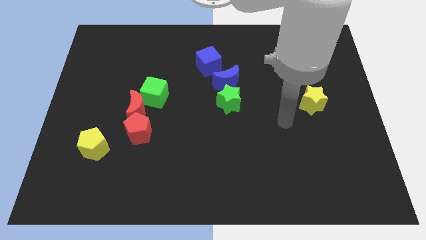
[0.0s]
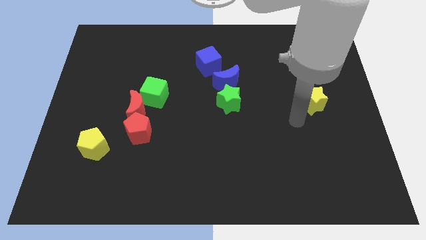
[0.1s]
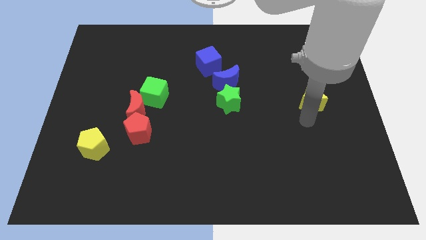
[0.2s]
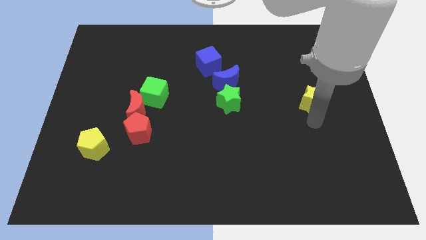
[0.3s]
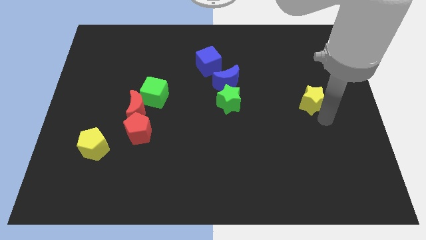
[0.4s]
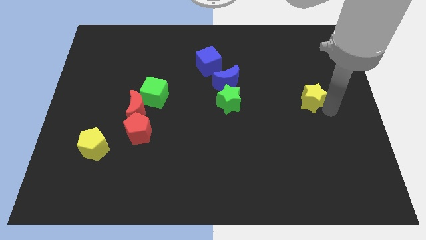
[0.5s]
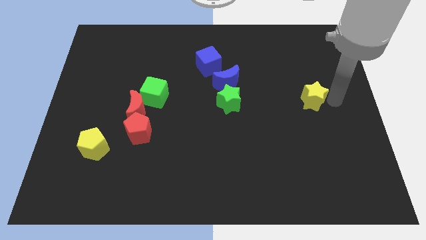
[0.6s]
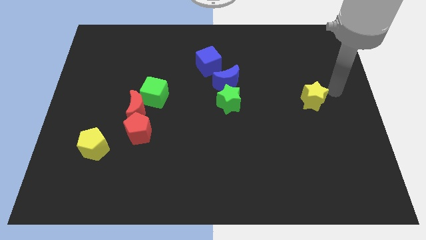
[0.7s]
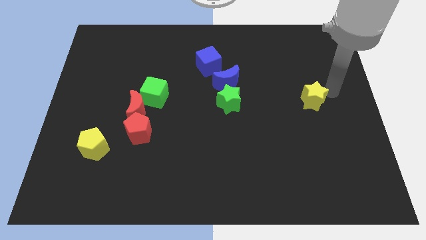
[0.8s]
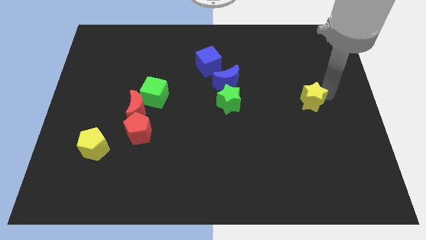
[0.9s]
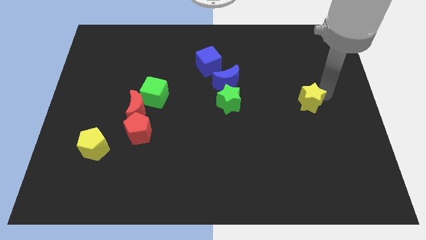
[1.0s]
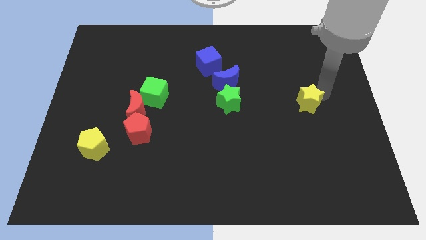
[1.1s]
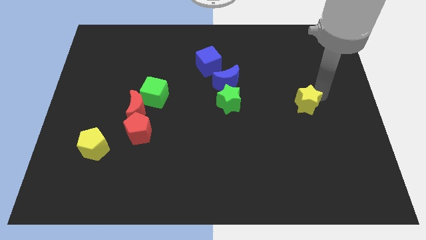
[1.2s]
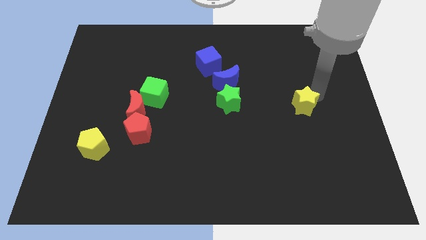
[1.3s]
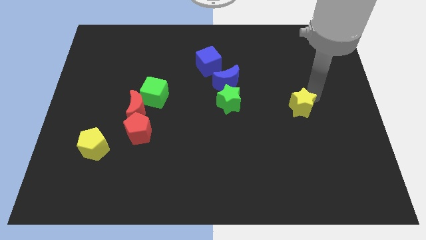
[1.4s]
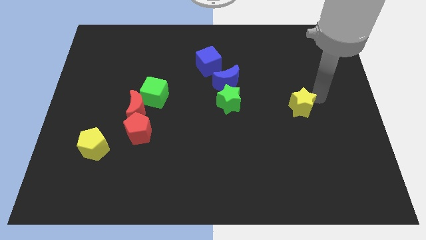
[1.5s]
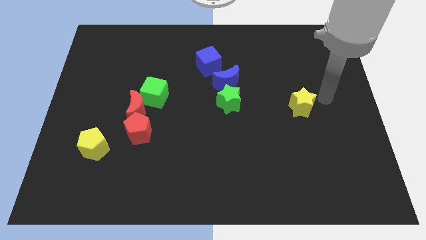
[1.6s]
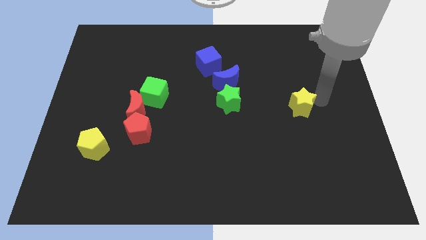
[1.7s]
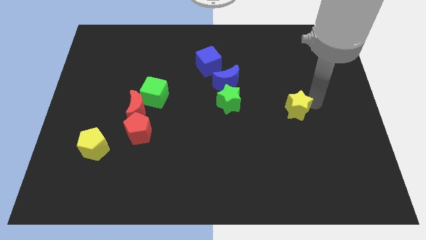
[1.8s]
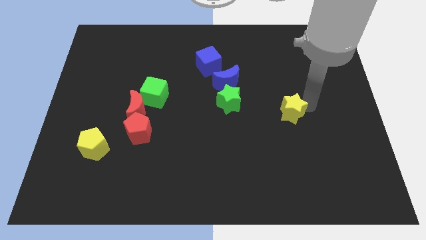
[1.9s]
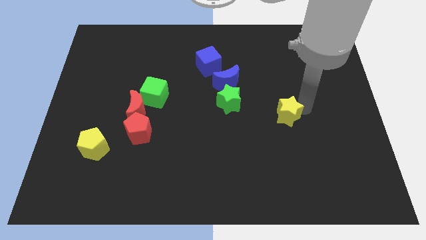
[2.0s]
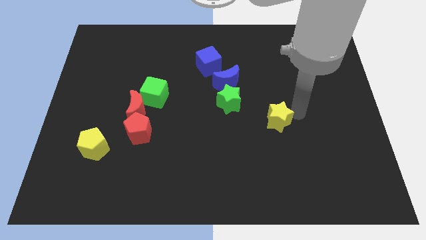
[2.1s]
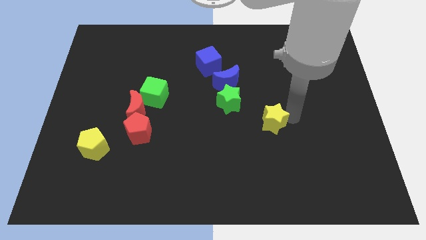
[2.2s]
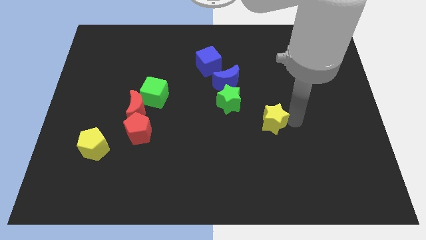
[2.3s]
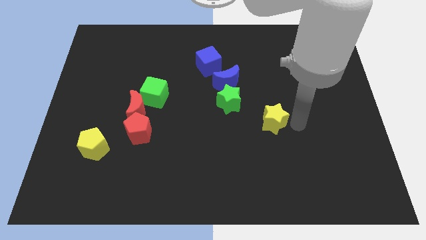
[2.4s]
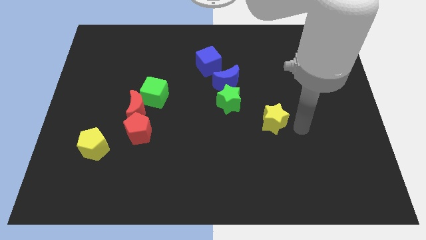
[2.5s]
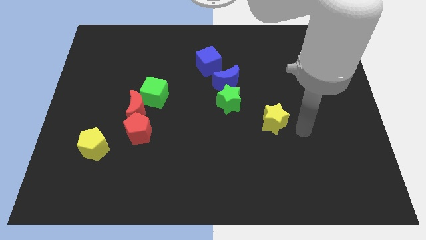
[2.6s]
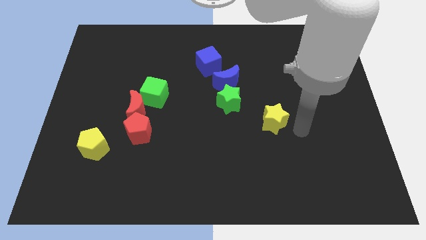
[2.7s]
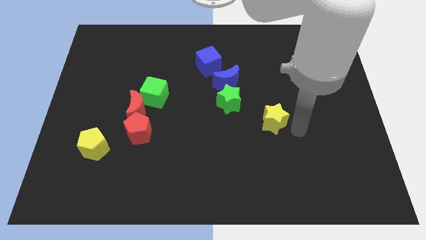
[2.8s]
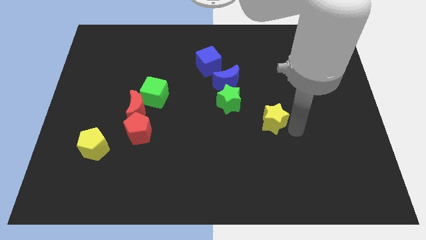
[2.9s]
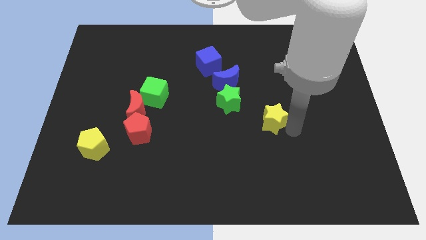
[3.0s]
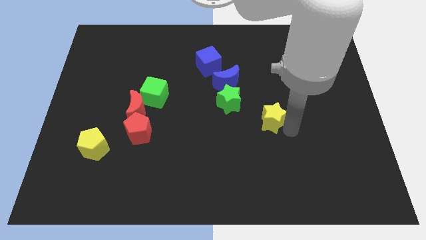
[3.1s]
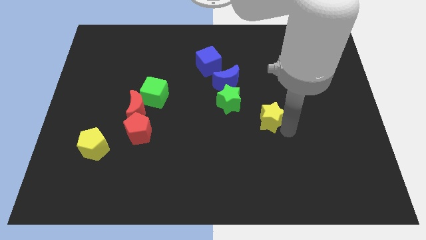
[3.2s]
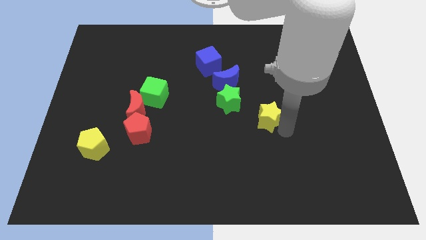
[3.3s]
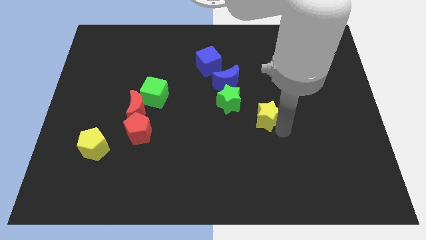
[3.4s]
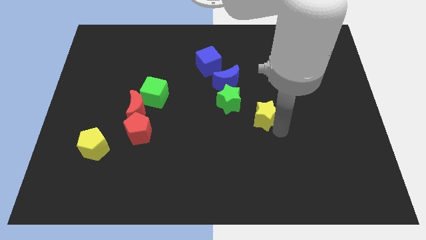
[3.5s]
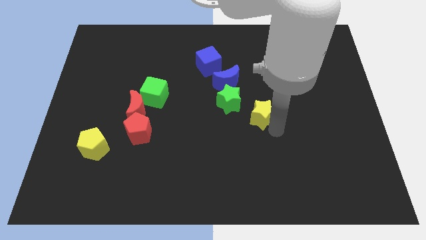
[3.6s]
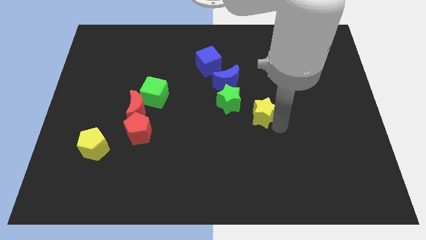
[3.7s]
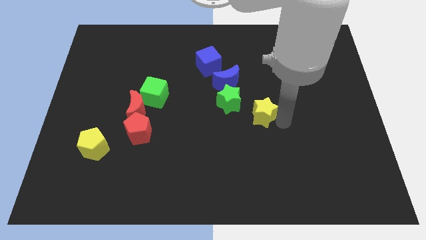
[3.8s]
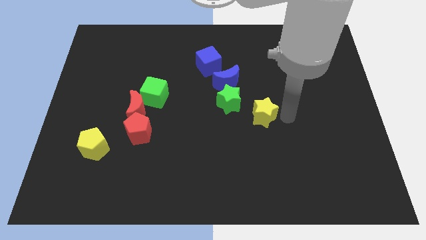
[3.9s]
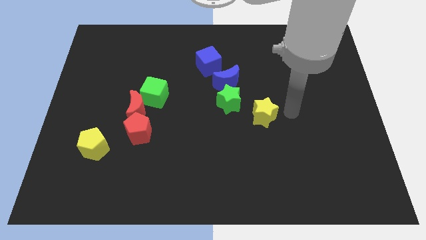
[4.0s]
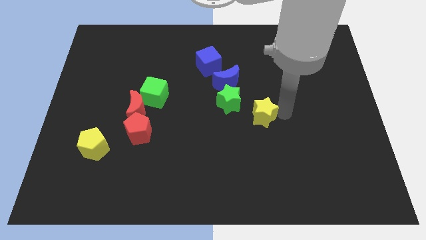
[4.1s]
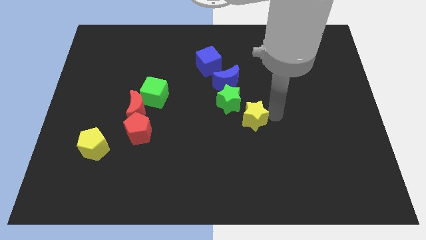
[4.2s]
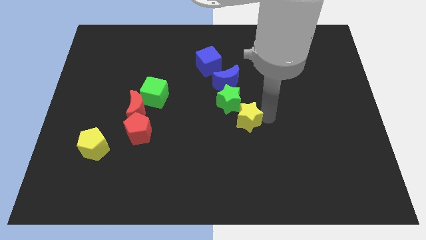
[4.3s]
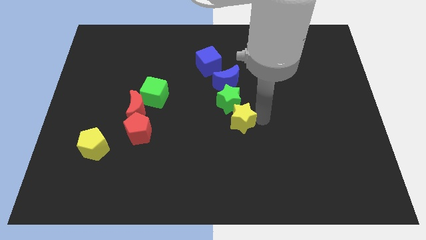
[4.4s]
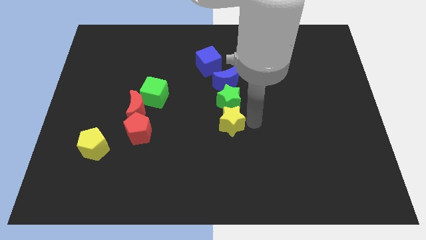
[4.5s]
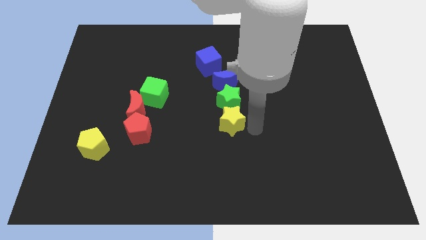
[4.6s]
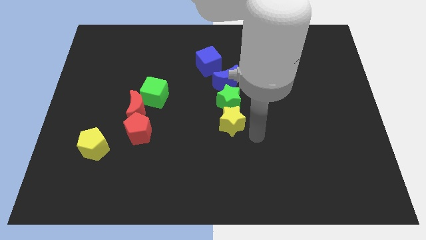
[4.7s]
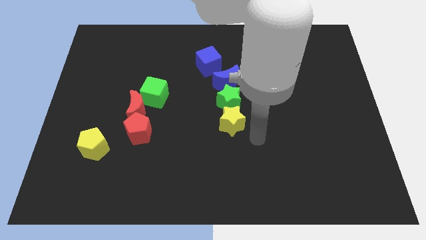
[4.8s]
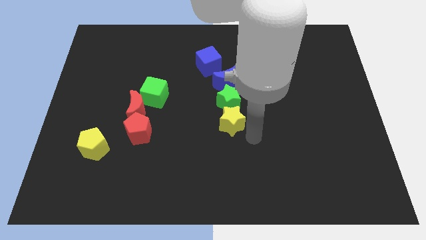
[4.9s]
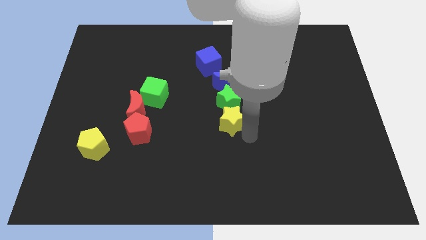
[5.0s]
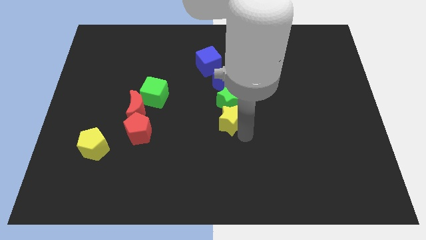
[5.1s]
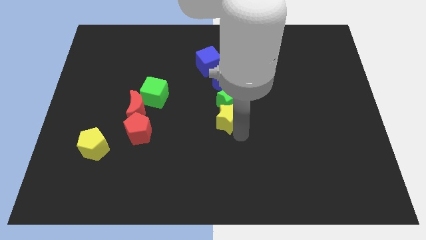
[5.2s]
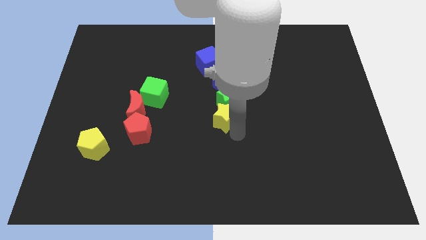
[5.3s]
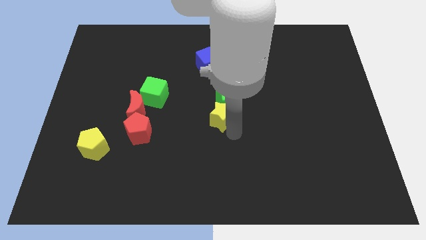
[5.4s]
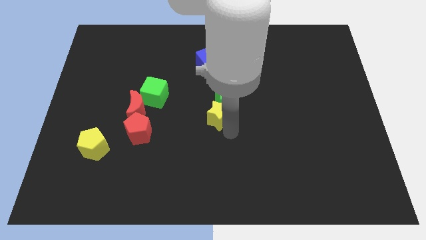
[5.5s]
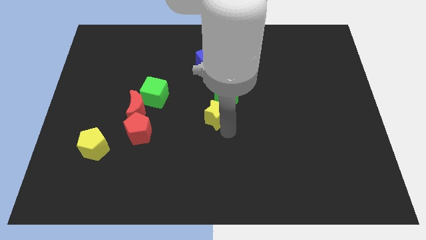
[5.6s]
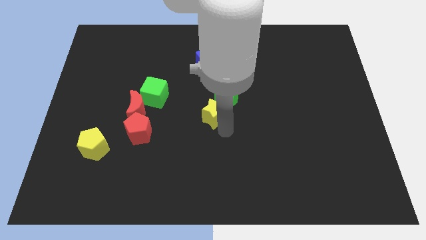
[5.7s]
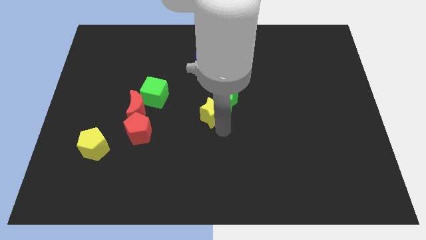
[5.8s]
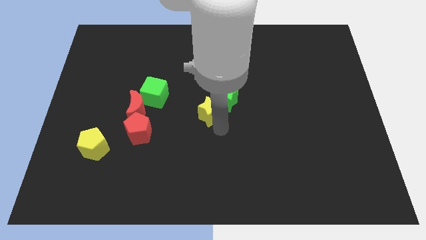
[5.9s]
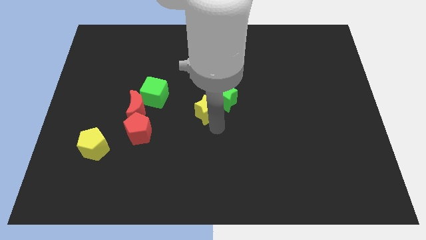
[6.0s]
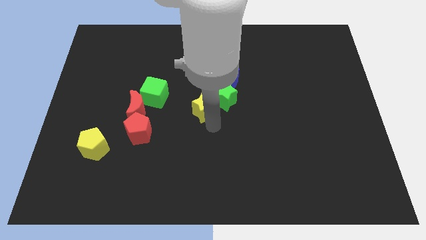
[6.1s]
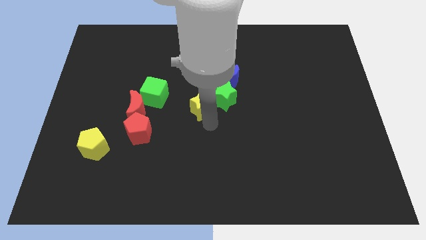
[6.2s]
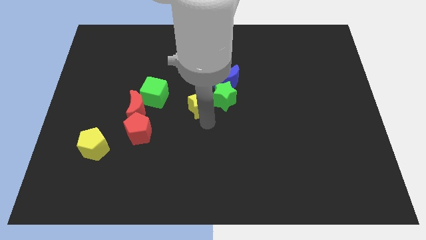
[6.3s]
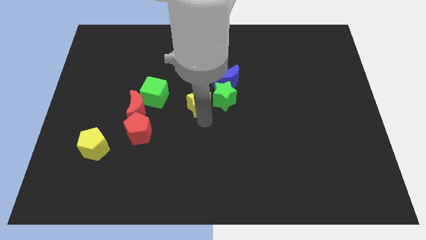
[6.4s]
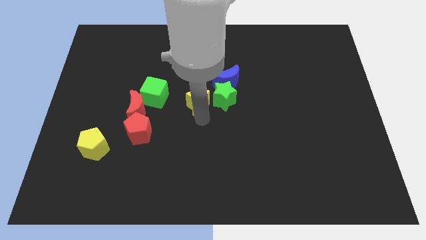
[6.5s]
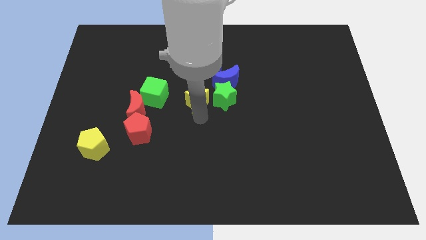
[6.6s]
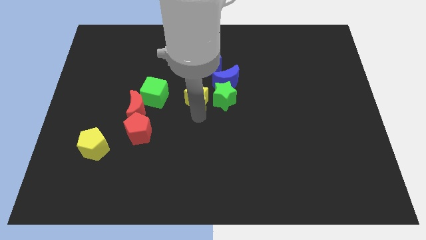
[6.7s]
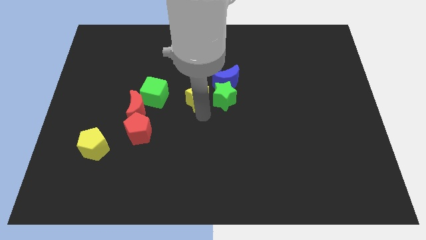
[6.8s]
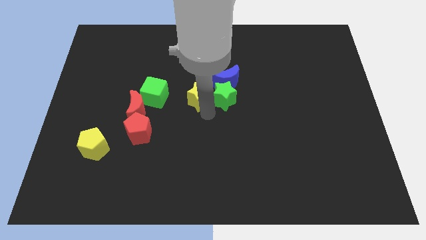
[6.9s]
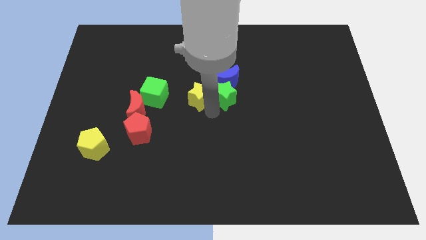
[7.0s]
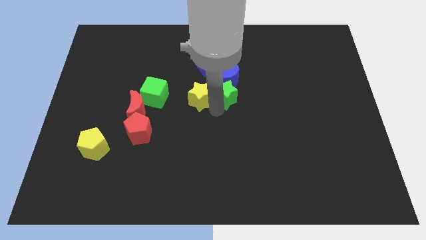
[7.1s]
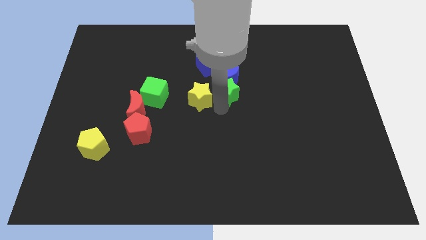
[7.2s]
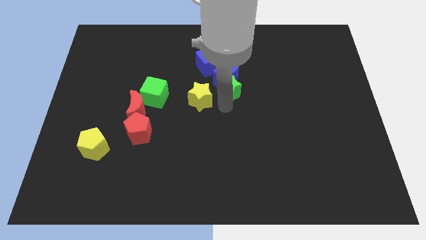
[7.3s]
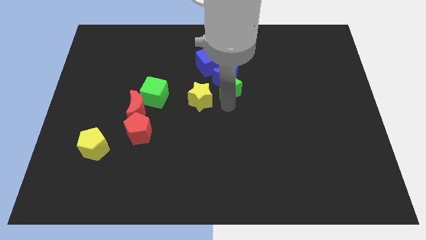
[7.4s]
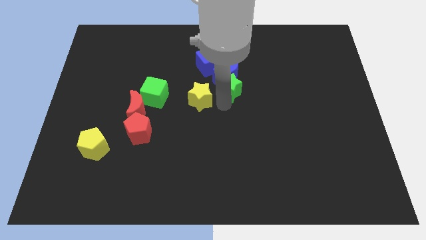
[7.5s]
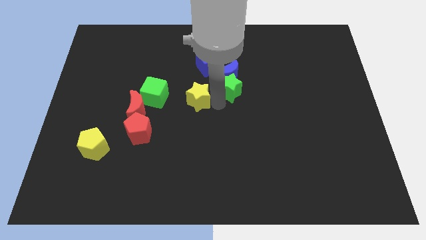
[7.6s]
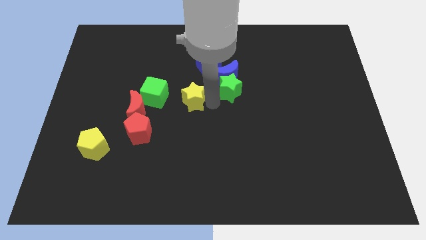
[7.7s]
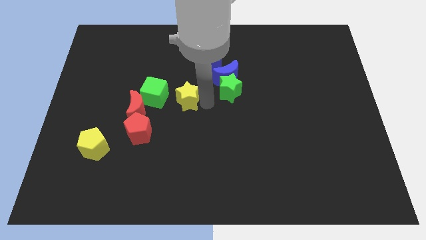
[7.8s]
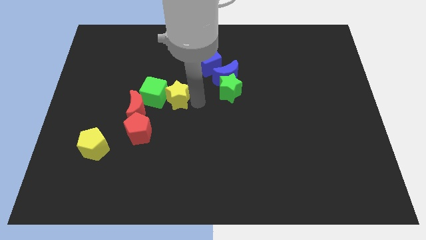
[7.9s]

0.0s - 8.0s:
push the yellow star close to the green cube

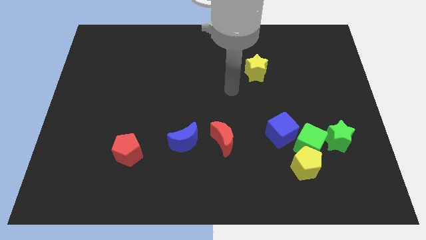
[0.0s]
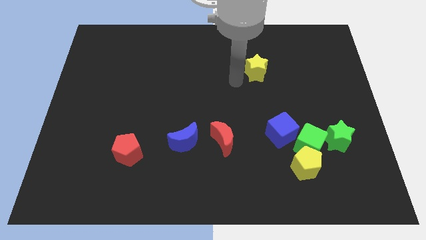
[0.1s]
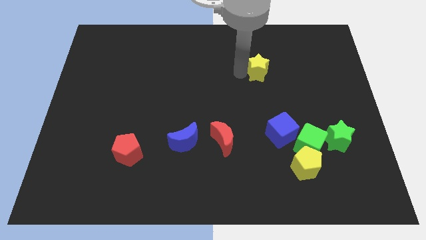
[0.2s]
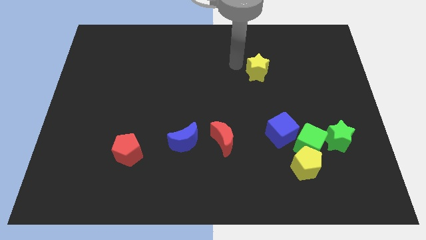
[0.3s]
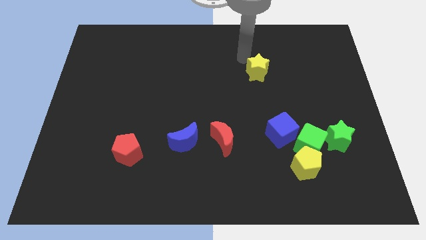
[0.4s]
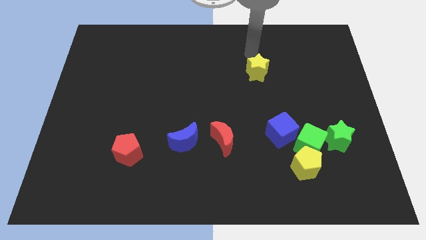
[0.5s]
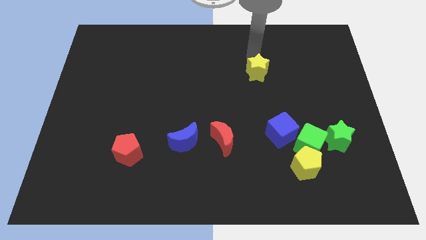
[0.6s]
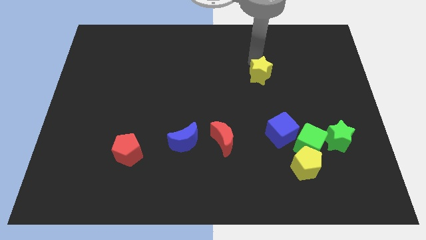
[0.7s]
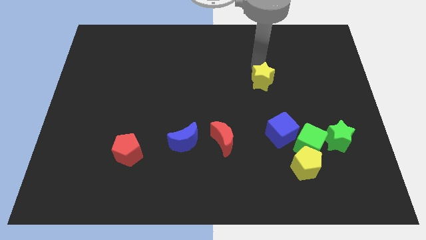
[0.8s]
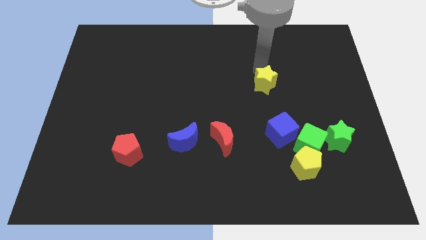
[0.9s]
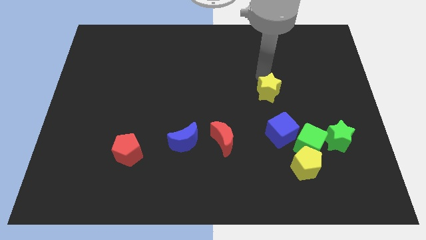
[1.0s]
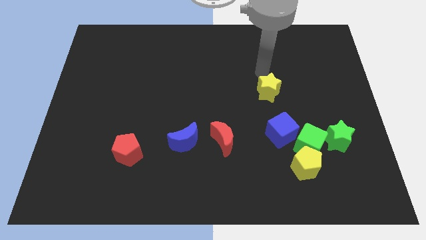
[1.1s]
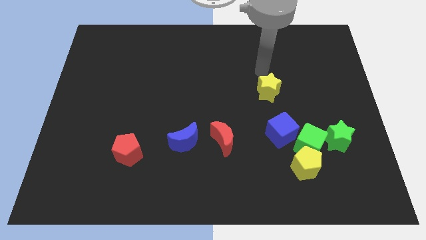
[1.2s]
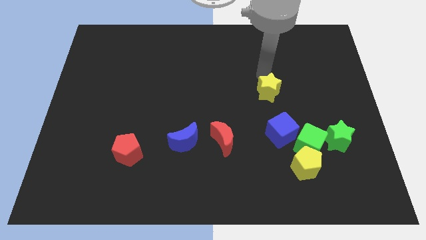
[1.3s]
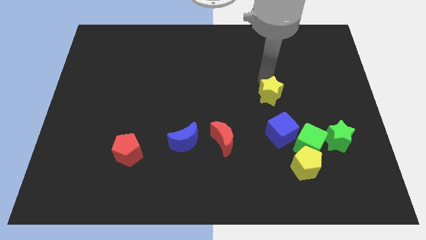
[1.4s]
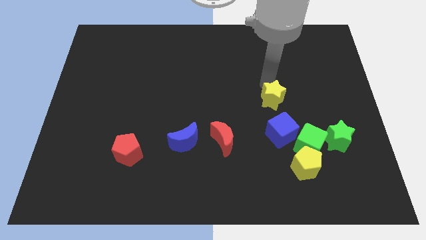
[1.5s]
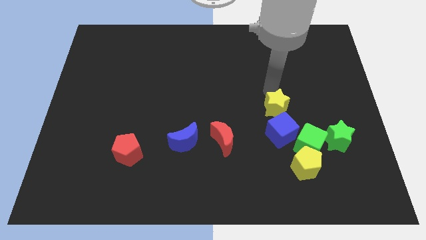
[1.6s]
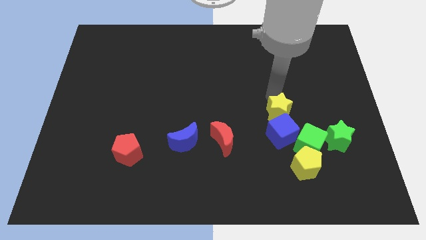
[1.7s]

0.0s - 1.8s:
put the yellow star close to the blue cube
